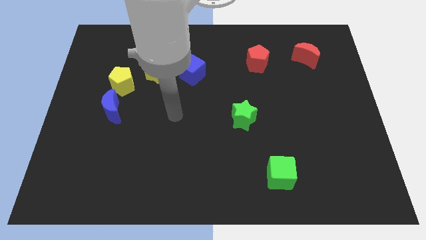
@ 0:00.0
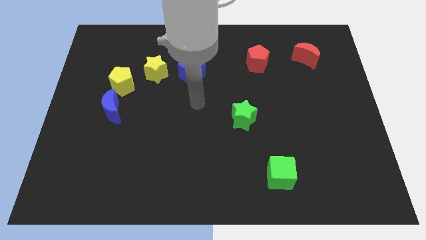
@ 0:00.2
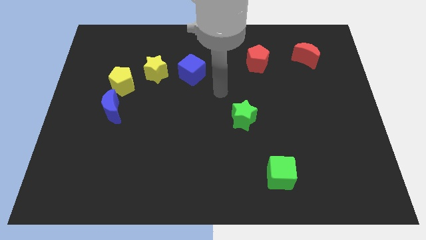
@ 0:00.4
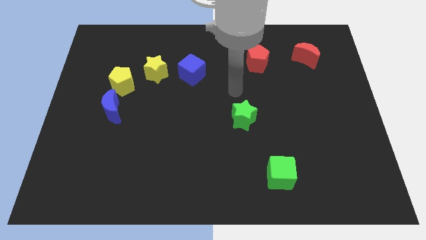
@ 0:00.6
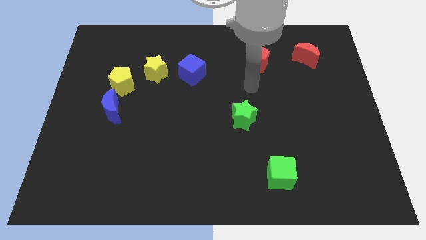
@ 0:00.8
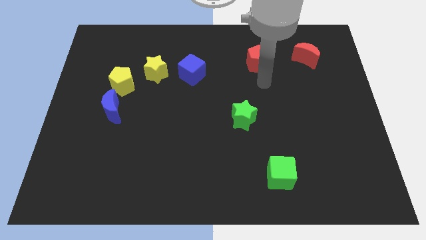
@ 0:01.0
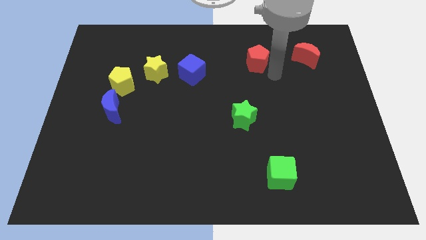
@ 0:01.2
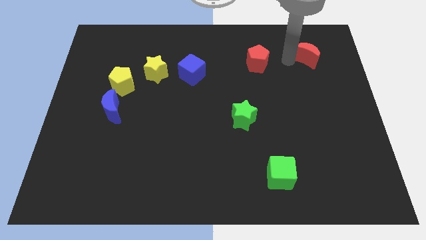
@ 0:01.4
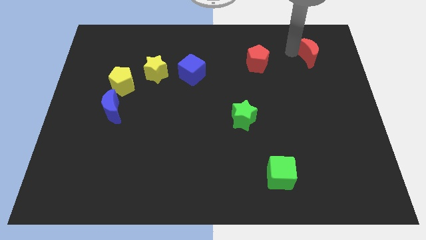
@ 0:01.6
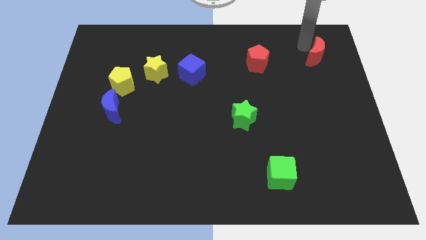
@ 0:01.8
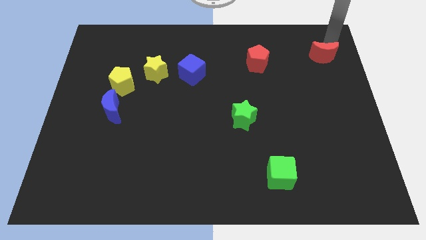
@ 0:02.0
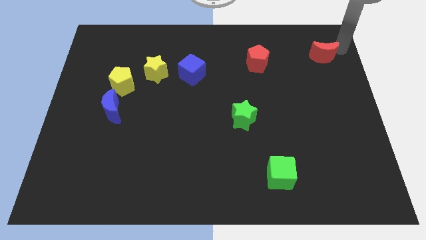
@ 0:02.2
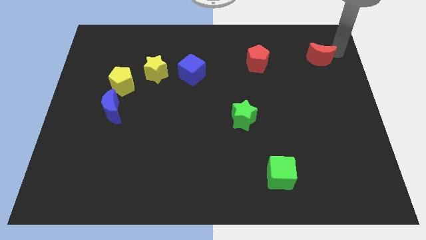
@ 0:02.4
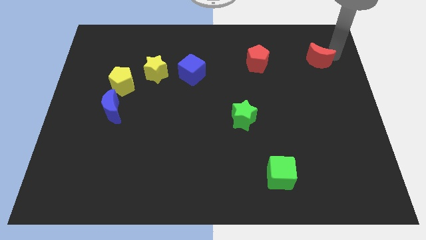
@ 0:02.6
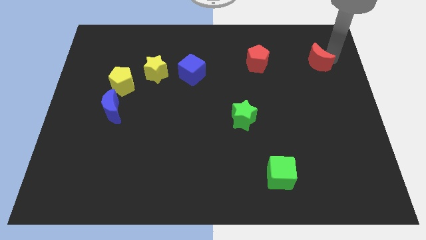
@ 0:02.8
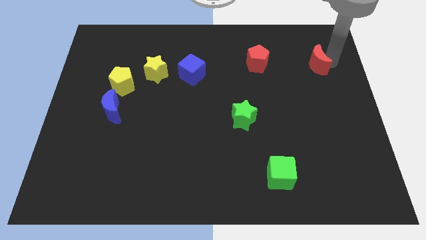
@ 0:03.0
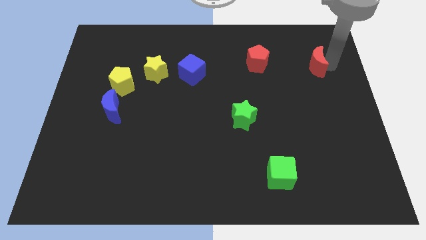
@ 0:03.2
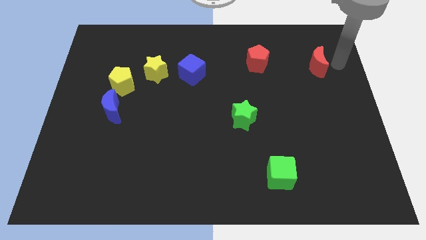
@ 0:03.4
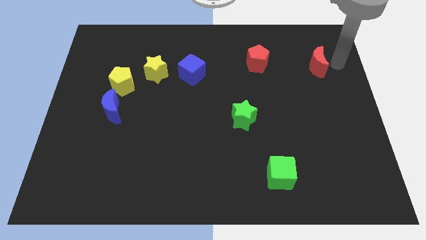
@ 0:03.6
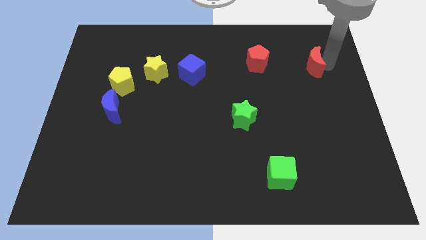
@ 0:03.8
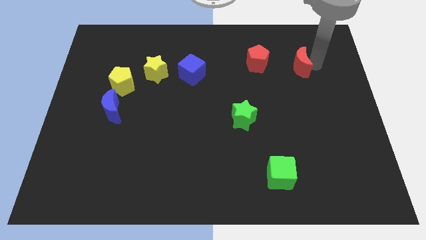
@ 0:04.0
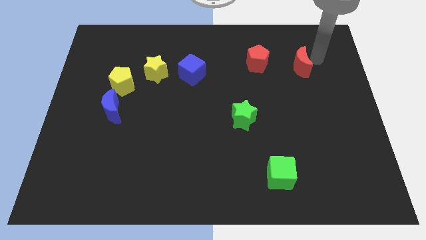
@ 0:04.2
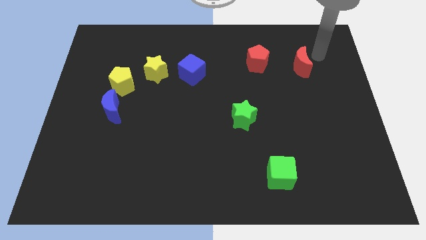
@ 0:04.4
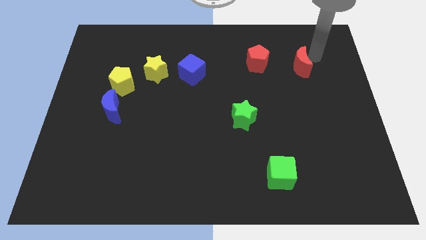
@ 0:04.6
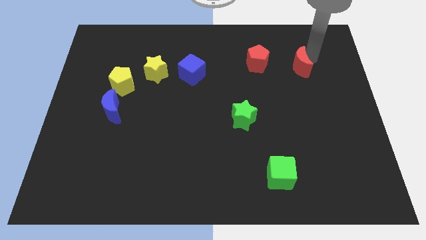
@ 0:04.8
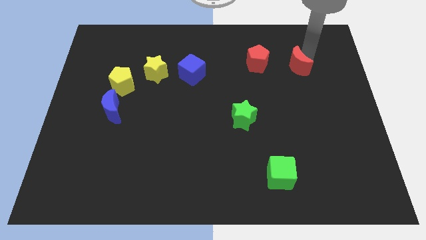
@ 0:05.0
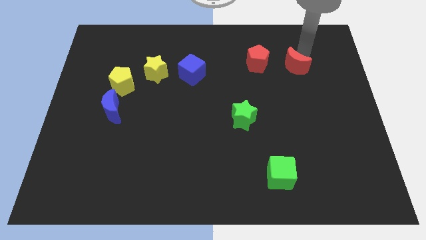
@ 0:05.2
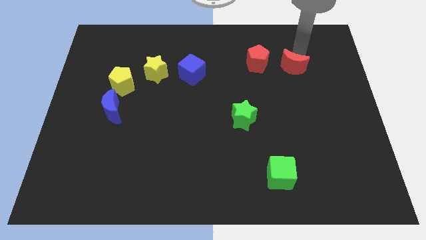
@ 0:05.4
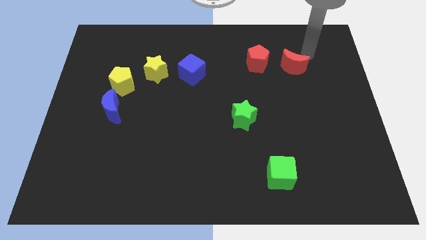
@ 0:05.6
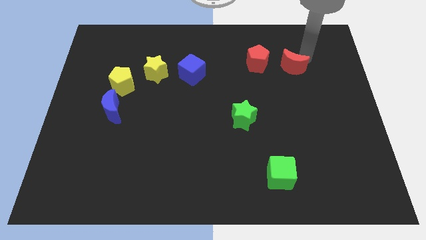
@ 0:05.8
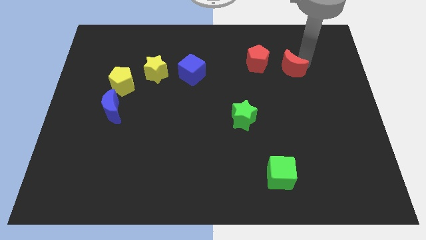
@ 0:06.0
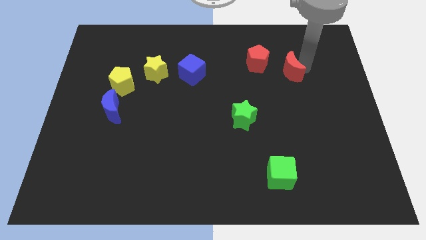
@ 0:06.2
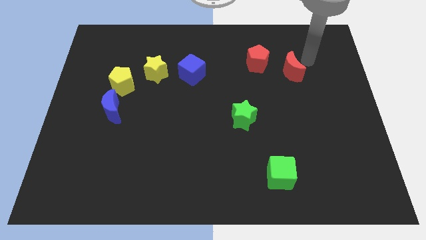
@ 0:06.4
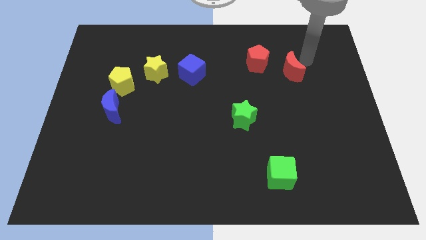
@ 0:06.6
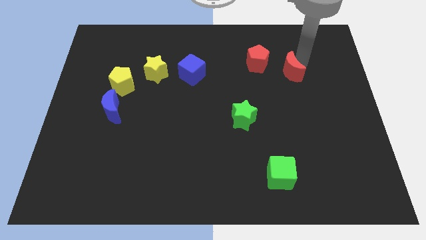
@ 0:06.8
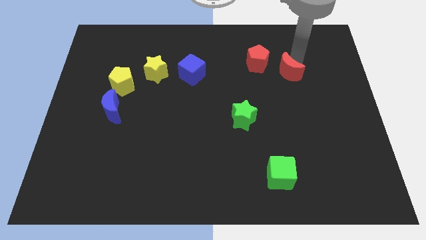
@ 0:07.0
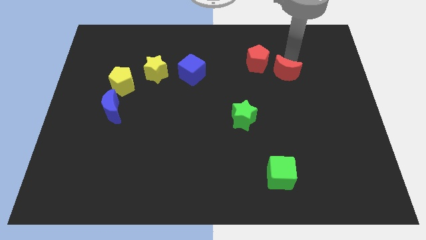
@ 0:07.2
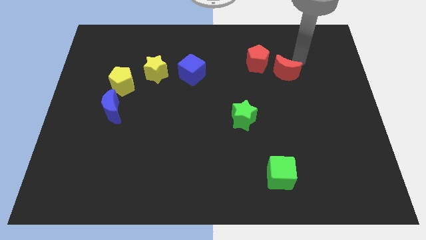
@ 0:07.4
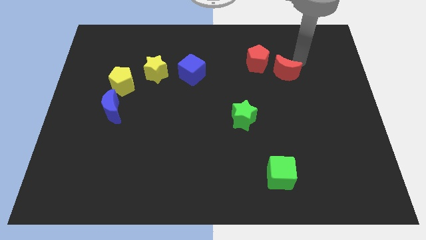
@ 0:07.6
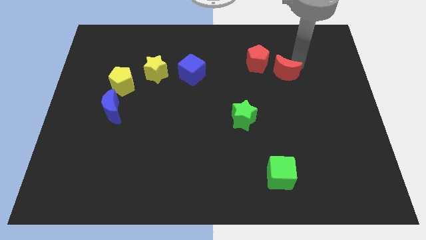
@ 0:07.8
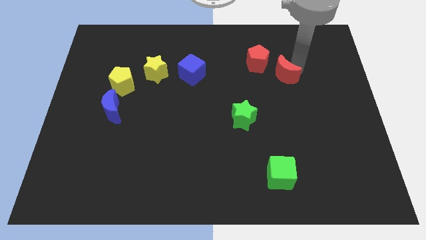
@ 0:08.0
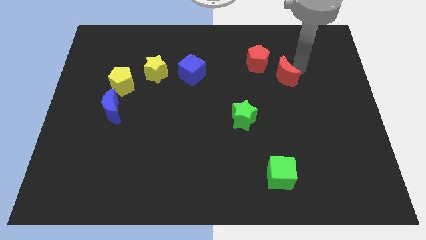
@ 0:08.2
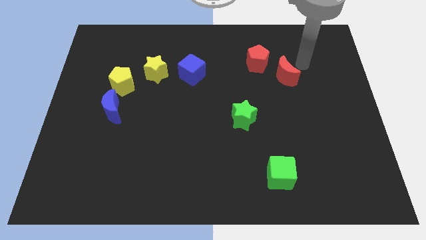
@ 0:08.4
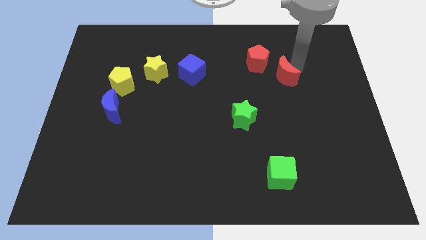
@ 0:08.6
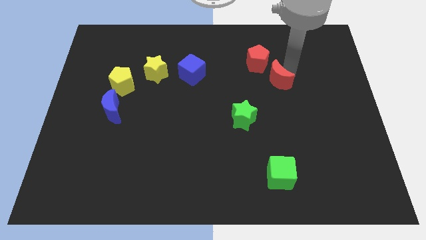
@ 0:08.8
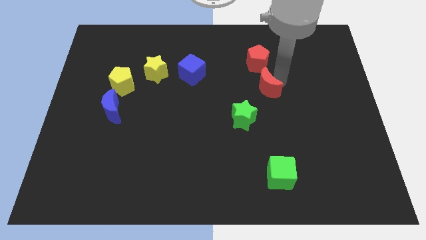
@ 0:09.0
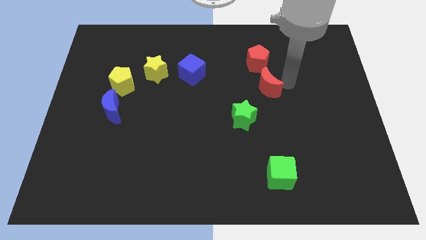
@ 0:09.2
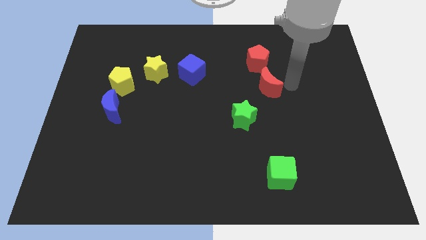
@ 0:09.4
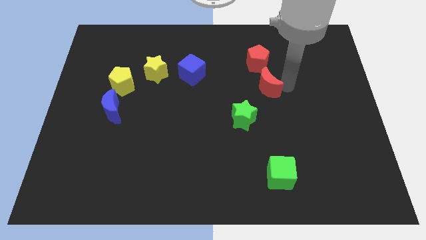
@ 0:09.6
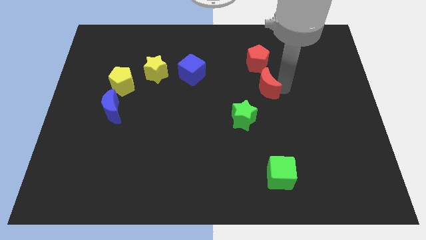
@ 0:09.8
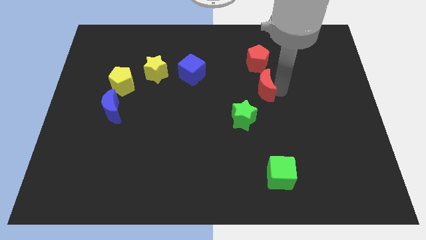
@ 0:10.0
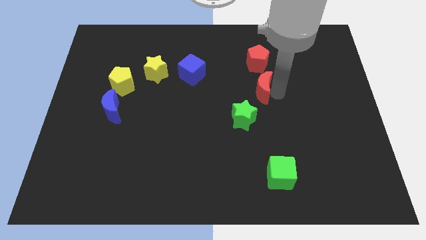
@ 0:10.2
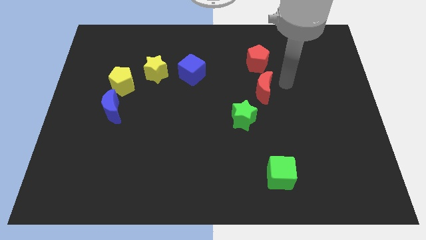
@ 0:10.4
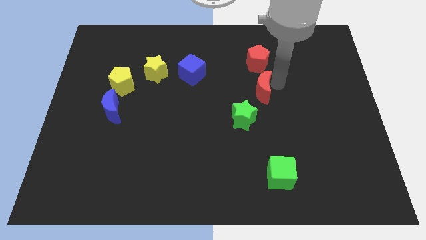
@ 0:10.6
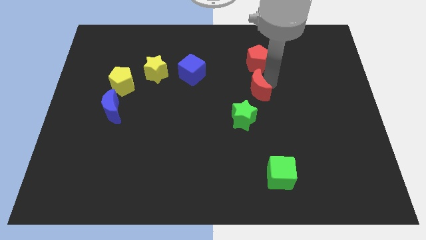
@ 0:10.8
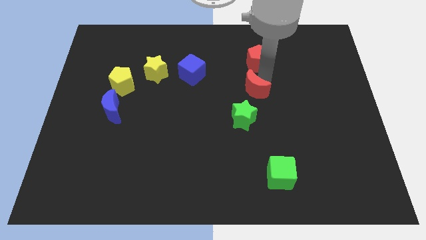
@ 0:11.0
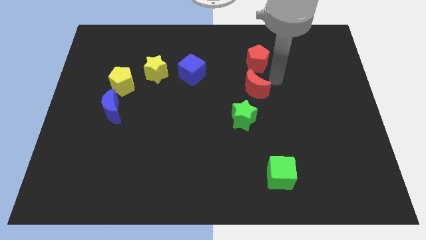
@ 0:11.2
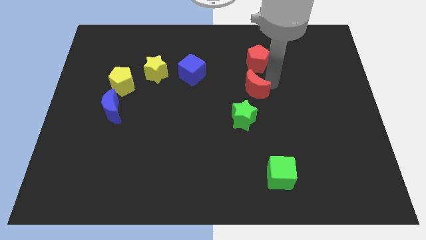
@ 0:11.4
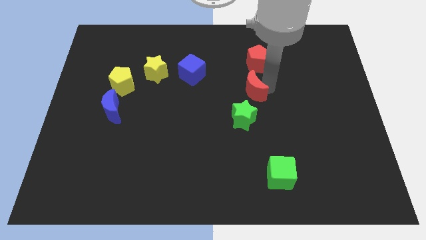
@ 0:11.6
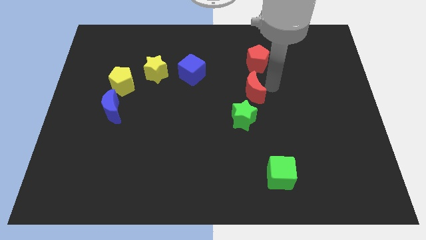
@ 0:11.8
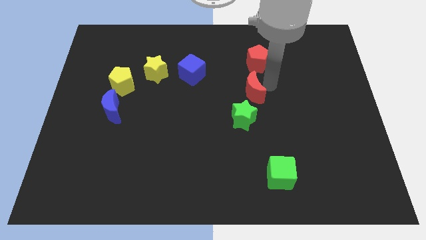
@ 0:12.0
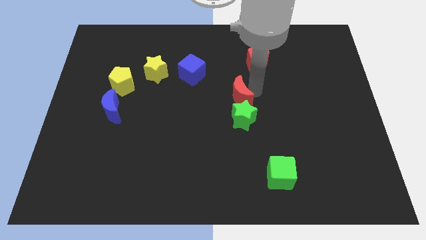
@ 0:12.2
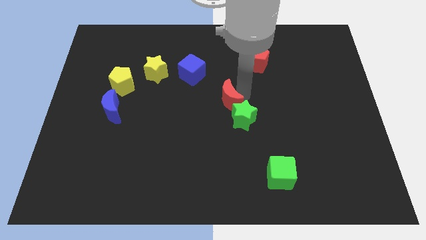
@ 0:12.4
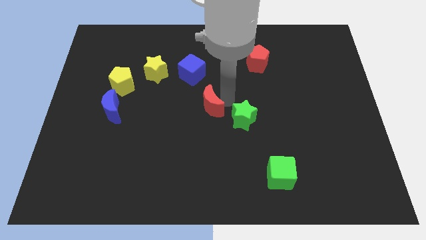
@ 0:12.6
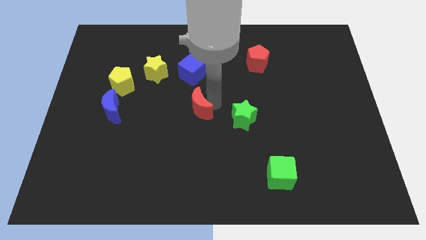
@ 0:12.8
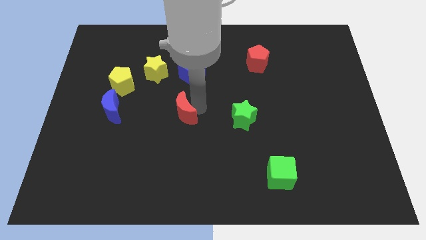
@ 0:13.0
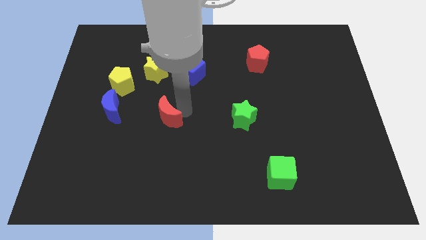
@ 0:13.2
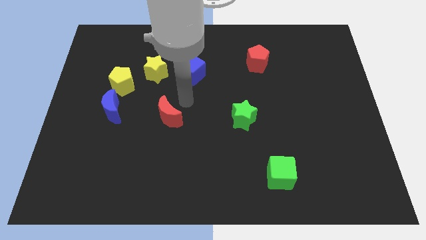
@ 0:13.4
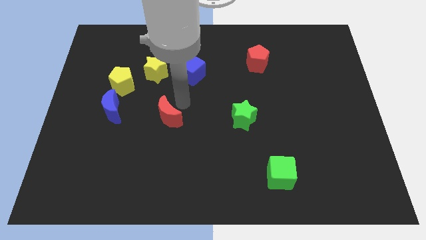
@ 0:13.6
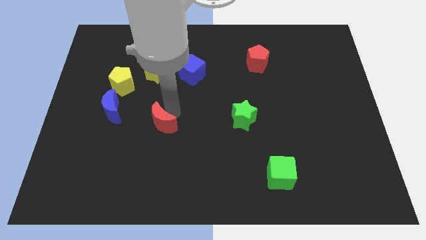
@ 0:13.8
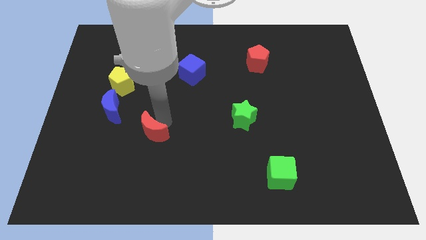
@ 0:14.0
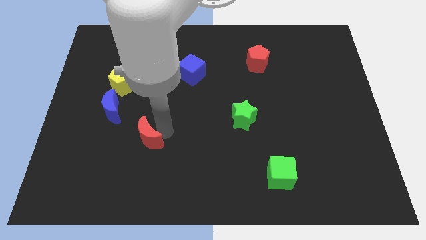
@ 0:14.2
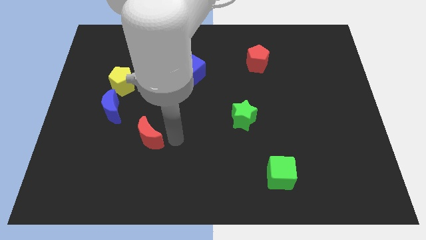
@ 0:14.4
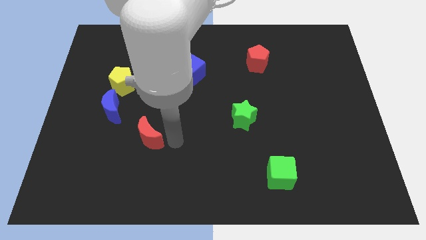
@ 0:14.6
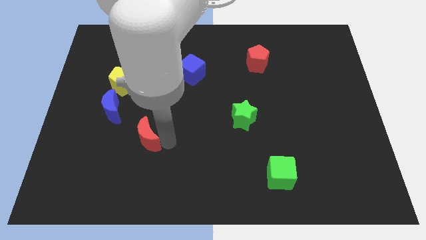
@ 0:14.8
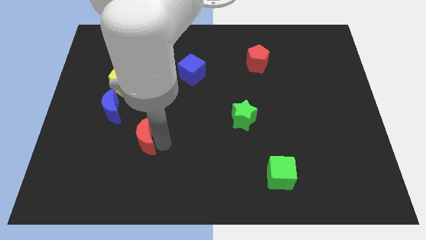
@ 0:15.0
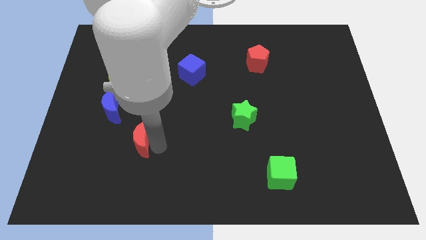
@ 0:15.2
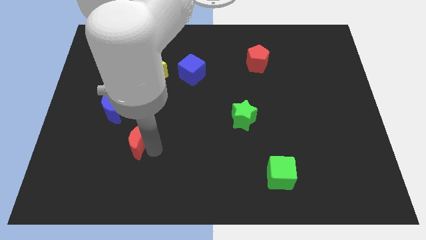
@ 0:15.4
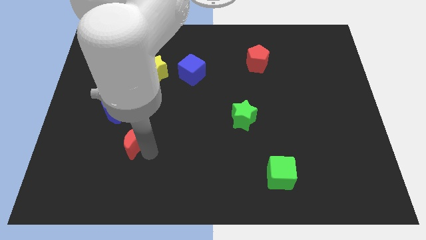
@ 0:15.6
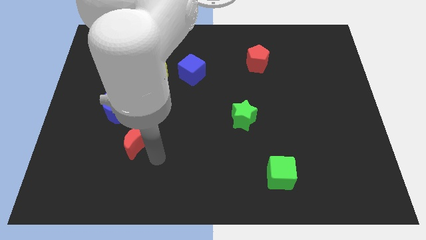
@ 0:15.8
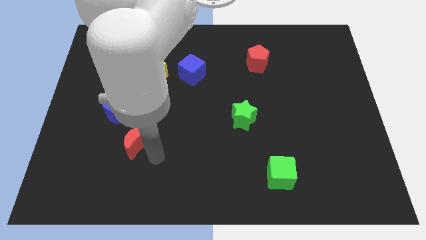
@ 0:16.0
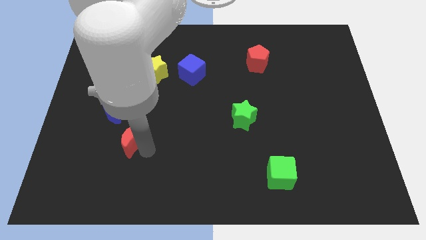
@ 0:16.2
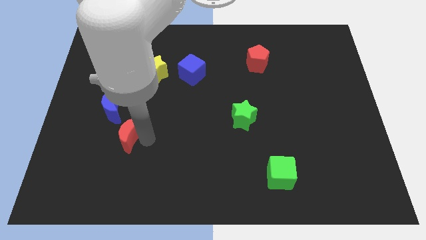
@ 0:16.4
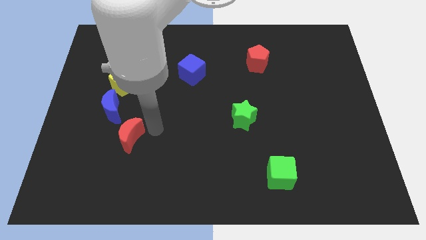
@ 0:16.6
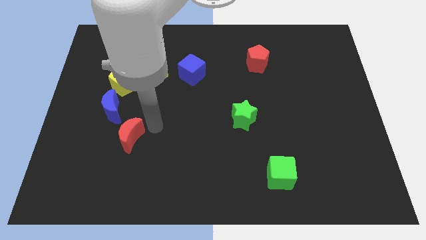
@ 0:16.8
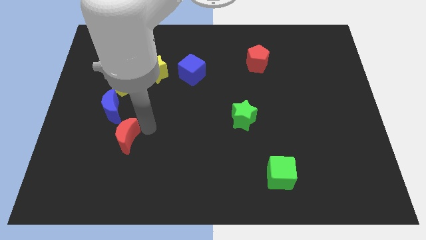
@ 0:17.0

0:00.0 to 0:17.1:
put the red moon to the bottom side of the blue moon
